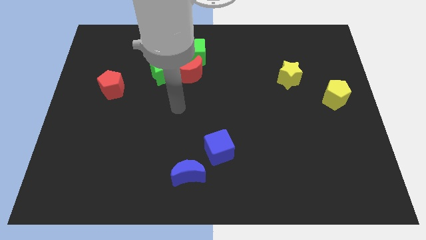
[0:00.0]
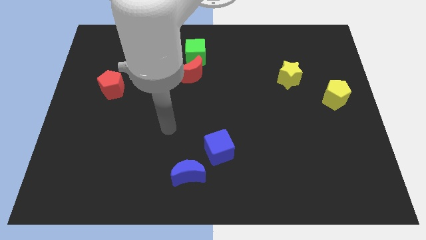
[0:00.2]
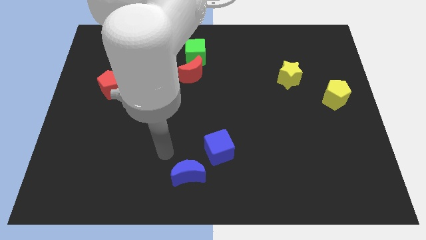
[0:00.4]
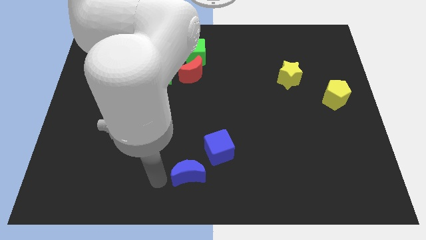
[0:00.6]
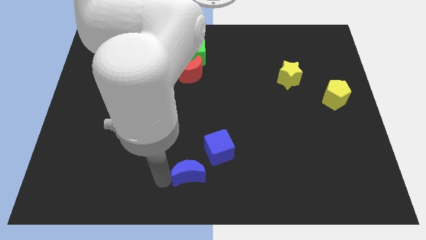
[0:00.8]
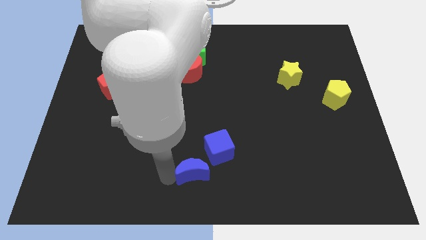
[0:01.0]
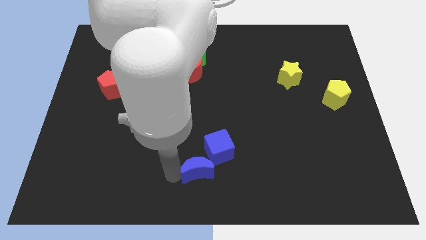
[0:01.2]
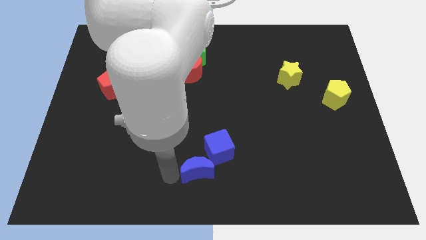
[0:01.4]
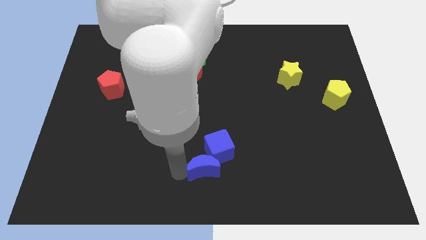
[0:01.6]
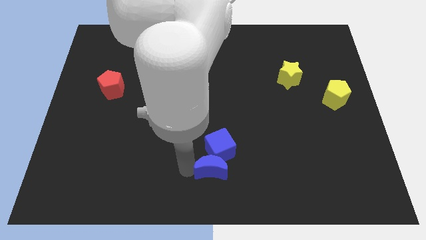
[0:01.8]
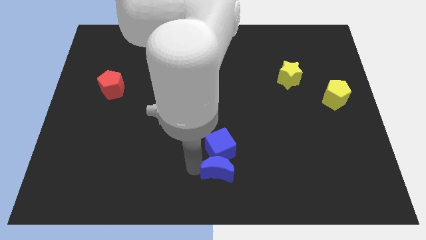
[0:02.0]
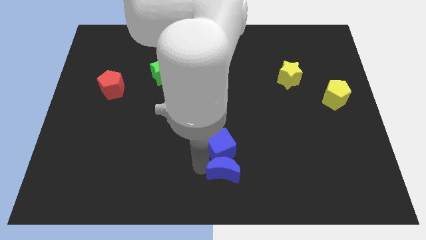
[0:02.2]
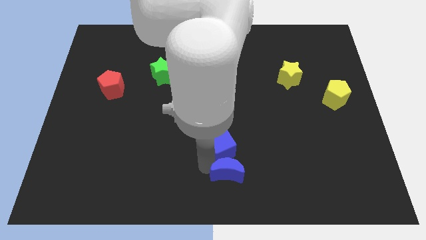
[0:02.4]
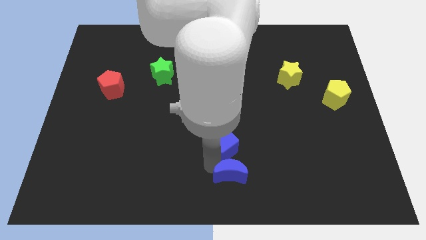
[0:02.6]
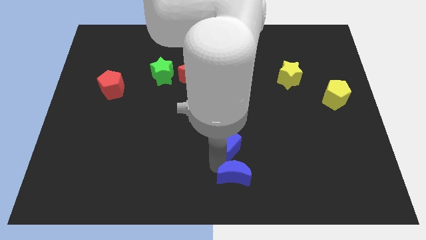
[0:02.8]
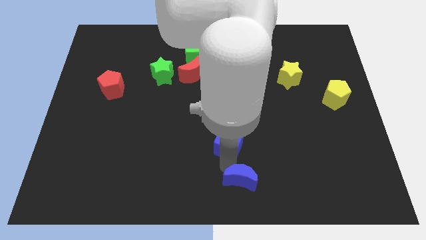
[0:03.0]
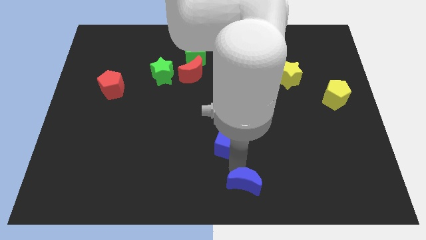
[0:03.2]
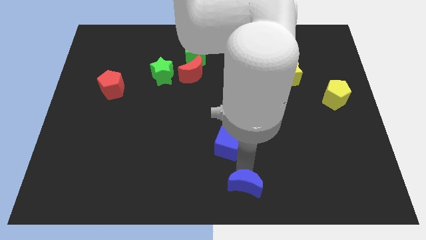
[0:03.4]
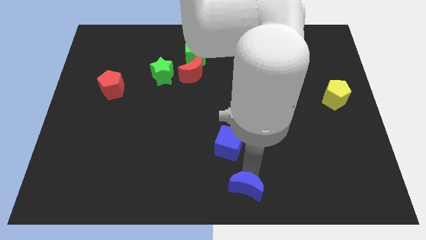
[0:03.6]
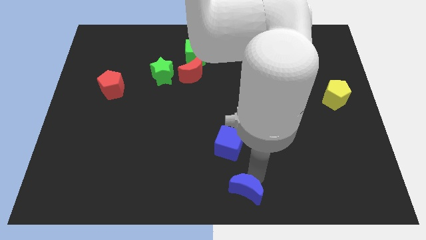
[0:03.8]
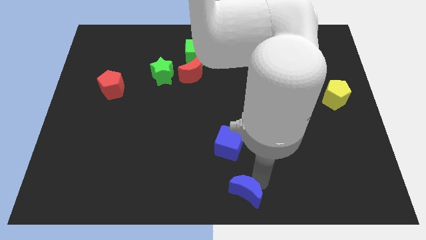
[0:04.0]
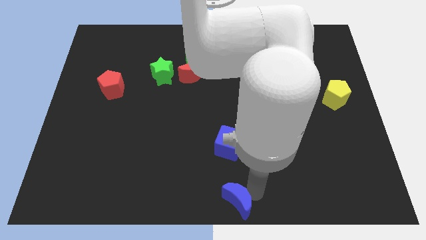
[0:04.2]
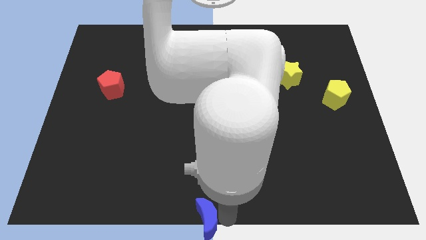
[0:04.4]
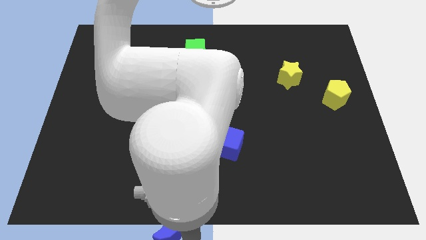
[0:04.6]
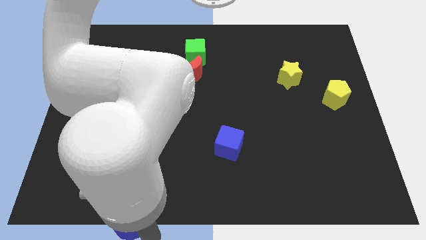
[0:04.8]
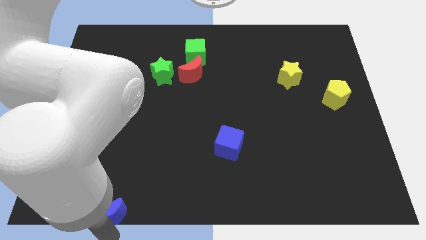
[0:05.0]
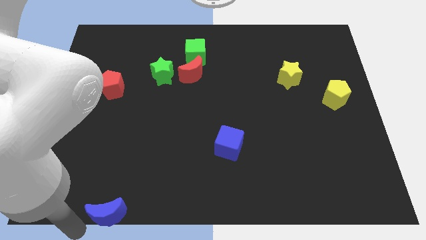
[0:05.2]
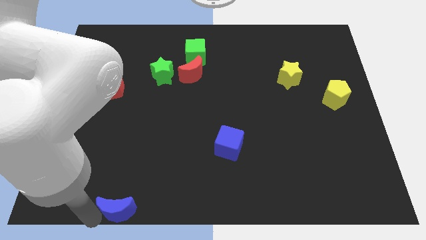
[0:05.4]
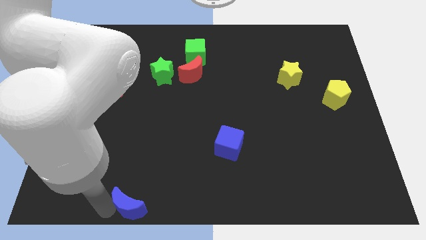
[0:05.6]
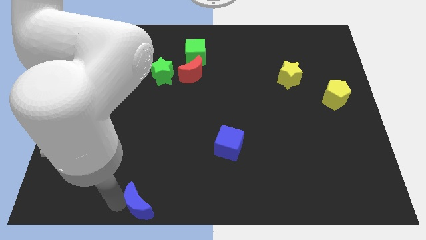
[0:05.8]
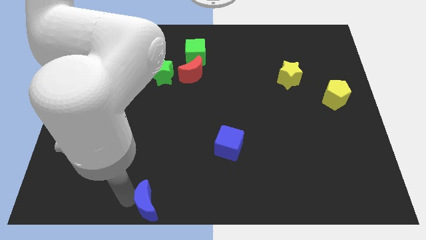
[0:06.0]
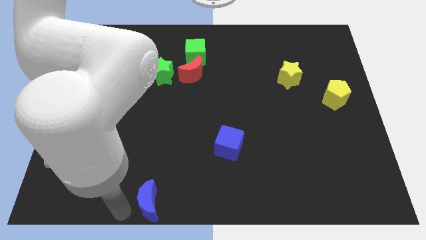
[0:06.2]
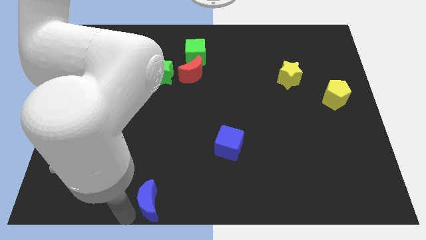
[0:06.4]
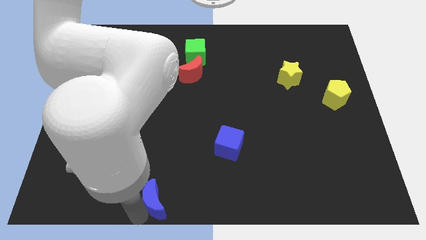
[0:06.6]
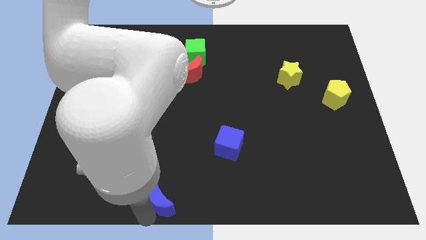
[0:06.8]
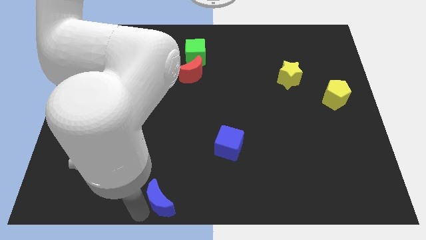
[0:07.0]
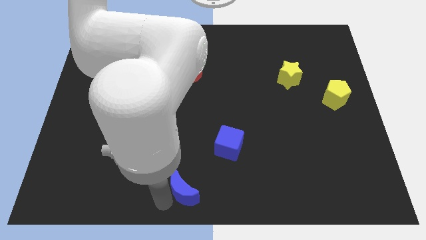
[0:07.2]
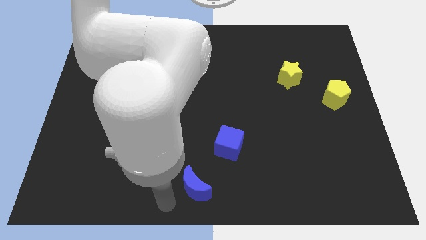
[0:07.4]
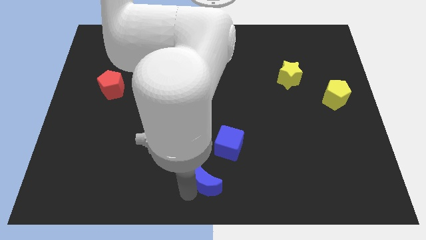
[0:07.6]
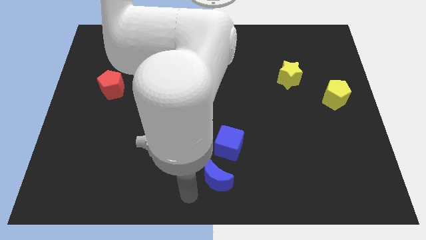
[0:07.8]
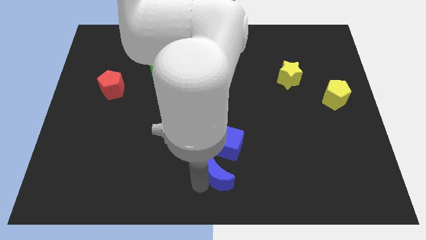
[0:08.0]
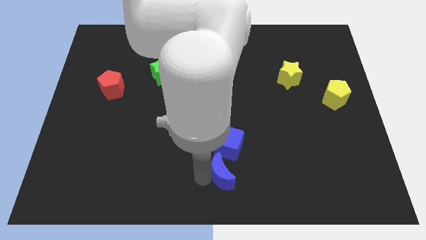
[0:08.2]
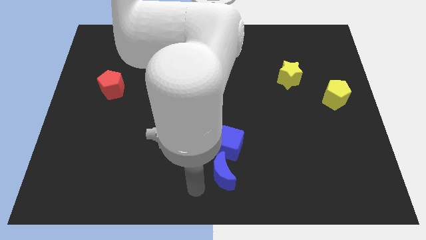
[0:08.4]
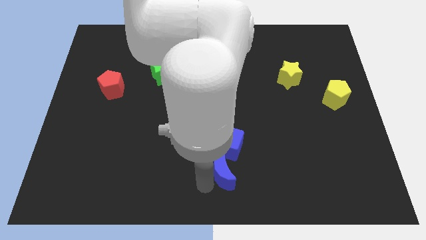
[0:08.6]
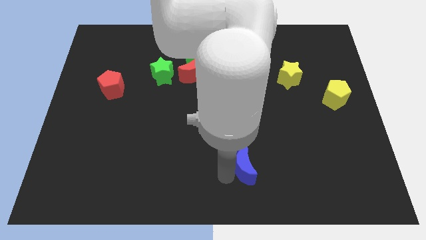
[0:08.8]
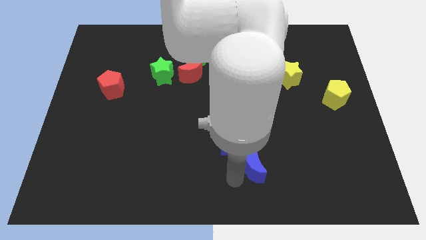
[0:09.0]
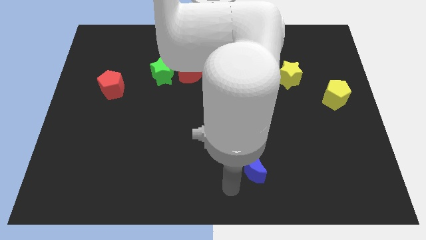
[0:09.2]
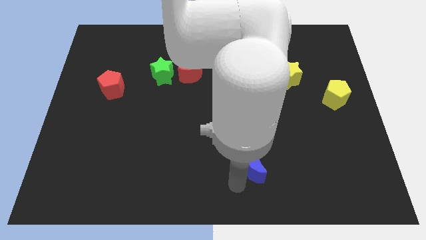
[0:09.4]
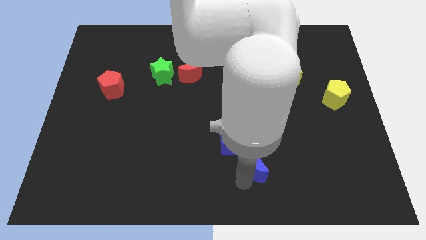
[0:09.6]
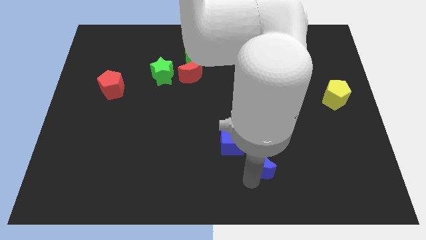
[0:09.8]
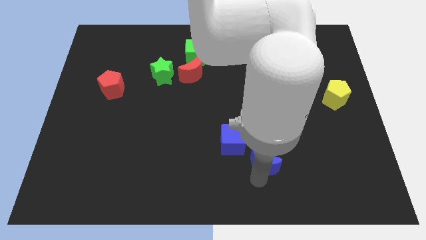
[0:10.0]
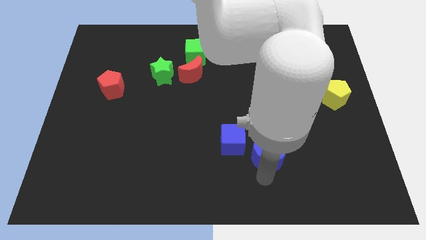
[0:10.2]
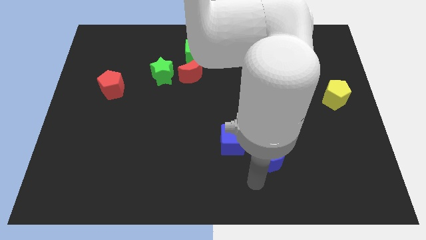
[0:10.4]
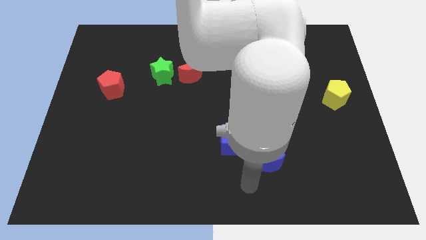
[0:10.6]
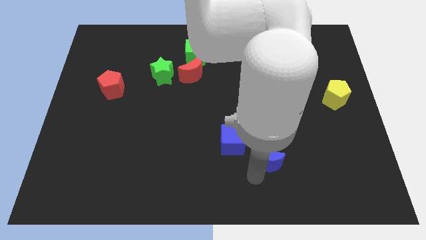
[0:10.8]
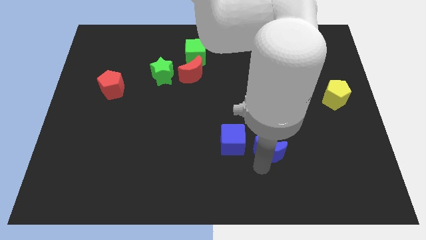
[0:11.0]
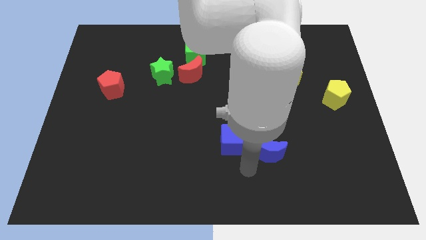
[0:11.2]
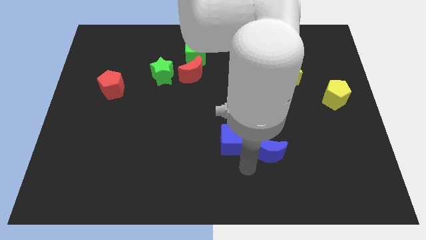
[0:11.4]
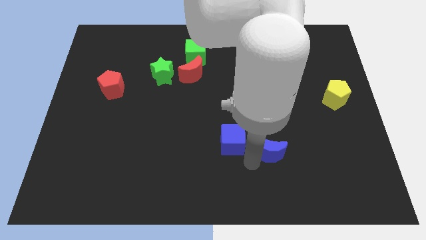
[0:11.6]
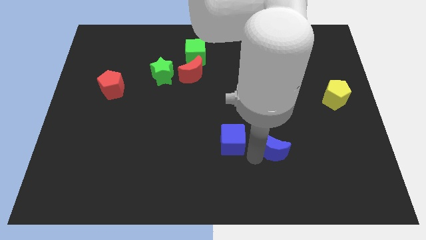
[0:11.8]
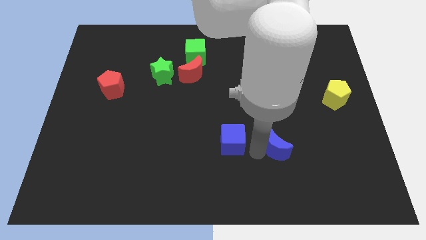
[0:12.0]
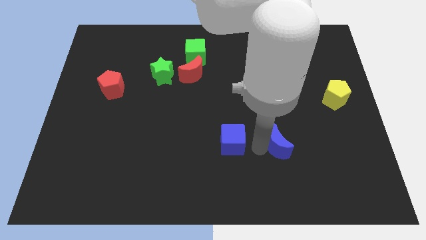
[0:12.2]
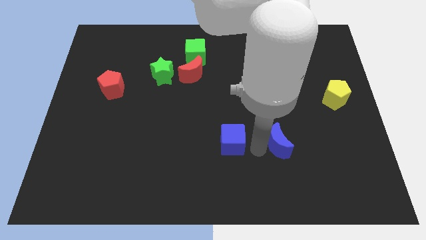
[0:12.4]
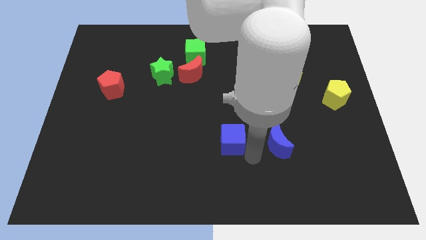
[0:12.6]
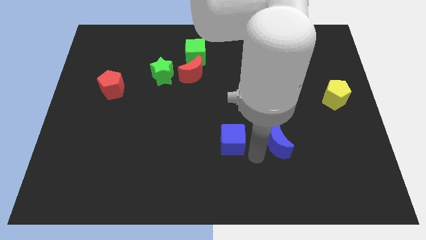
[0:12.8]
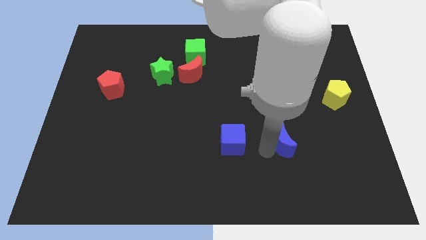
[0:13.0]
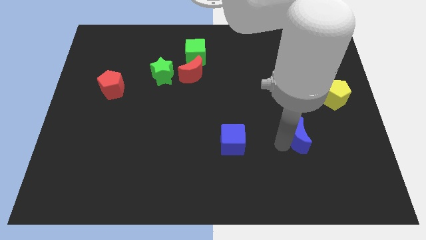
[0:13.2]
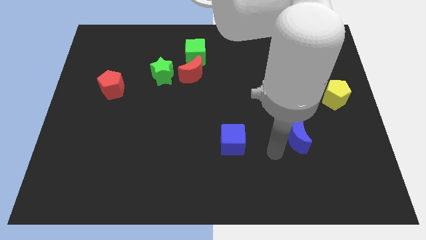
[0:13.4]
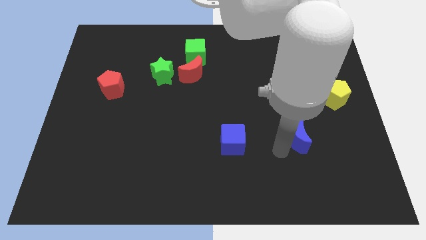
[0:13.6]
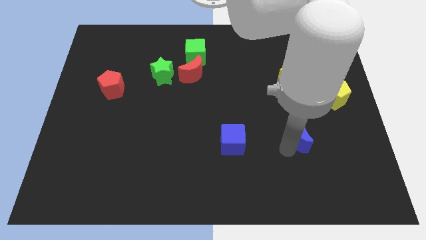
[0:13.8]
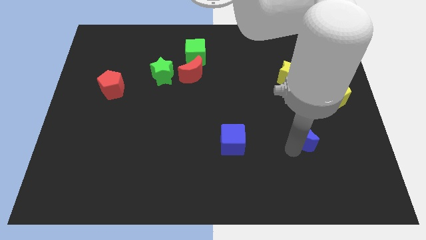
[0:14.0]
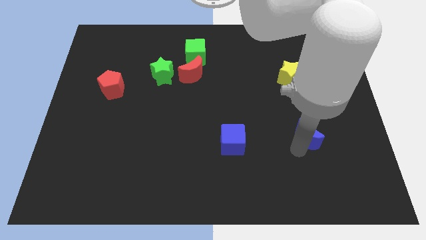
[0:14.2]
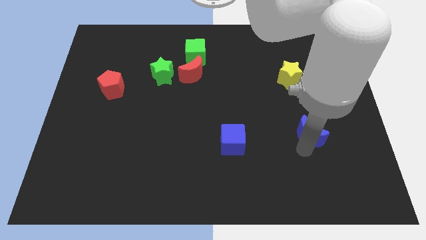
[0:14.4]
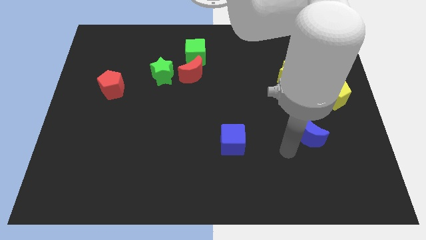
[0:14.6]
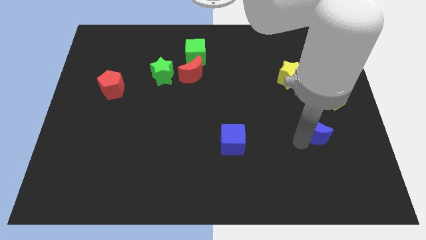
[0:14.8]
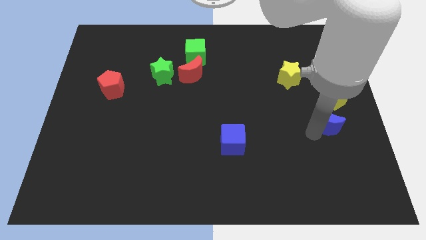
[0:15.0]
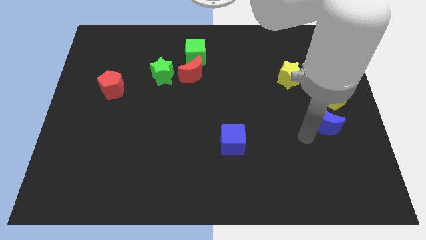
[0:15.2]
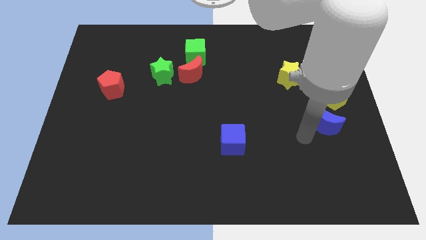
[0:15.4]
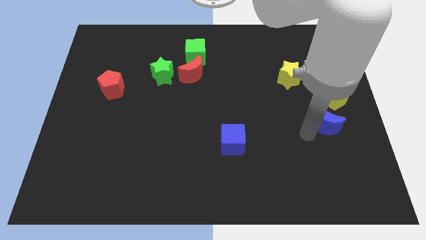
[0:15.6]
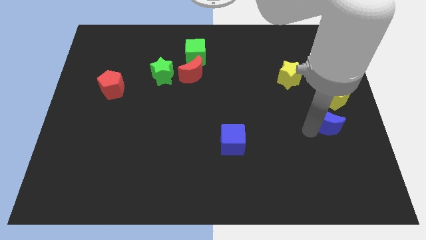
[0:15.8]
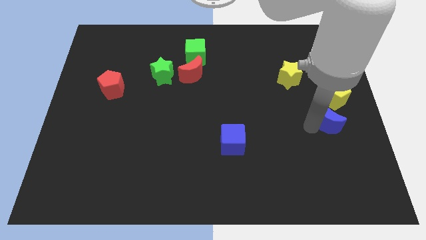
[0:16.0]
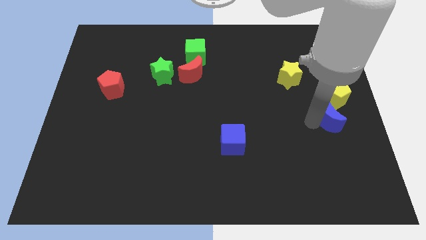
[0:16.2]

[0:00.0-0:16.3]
move the blue moon to the center right
